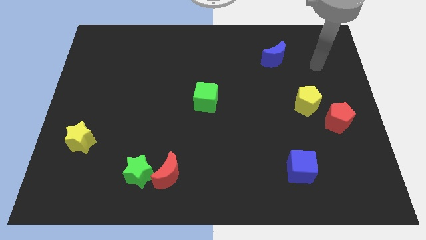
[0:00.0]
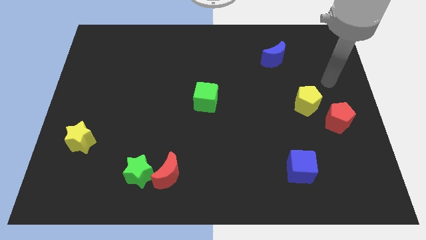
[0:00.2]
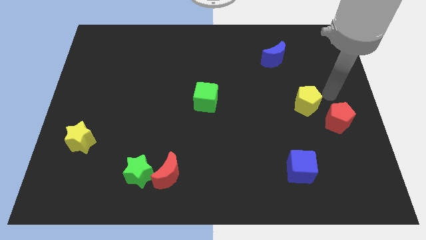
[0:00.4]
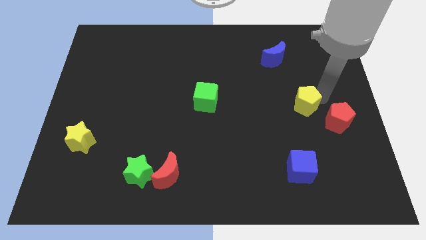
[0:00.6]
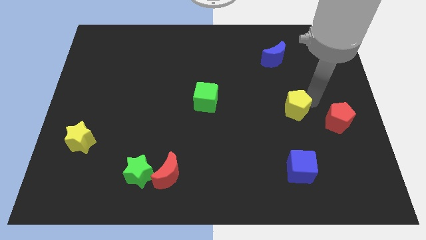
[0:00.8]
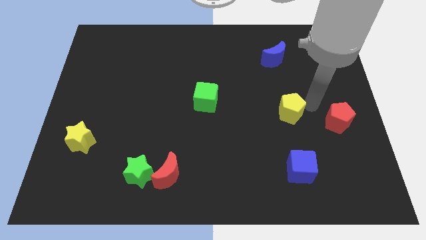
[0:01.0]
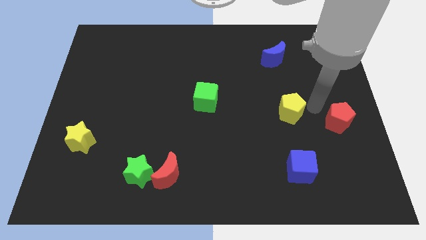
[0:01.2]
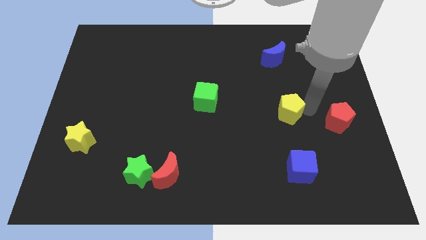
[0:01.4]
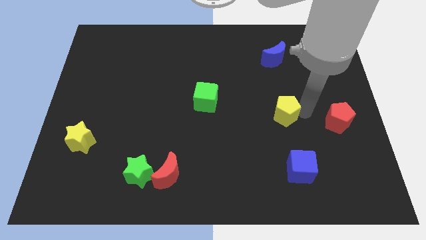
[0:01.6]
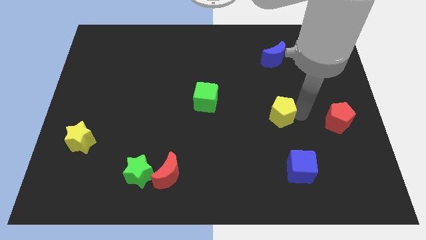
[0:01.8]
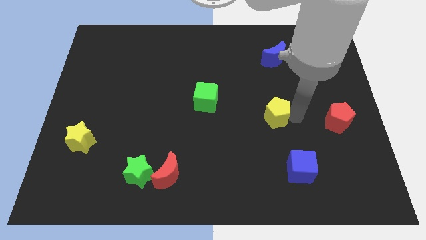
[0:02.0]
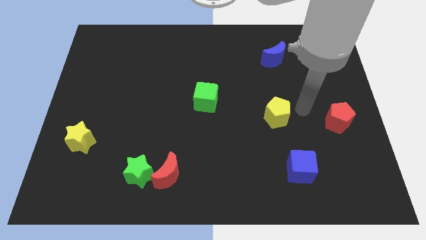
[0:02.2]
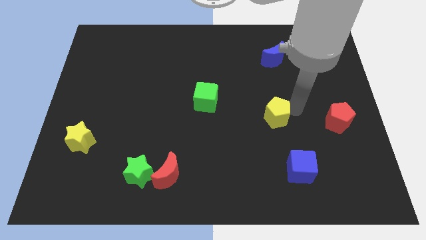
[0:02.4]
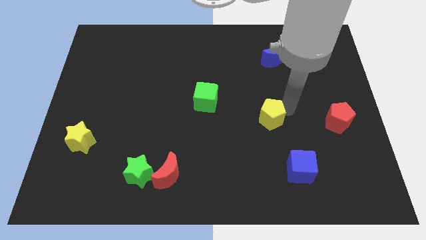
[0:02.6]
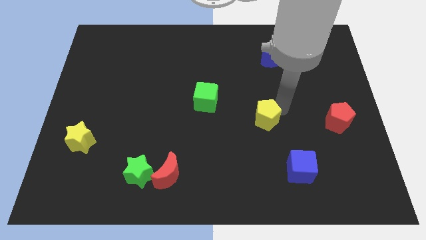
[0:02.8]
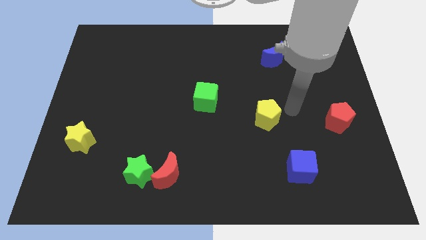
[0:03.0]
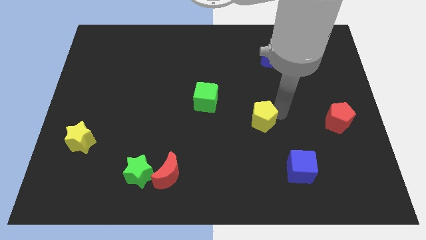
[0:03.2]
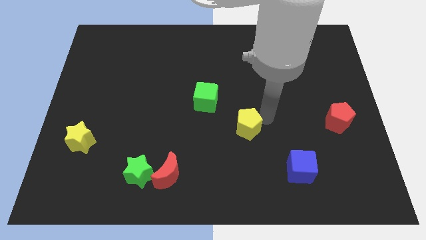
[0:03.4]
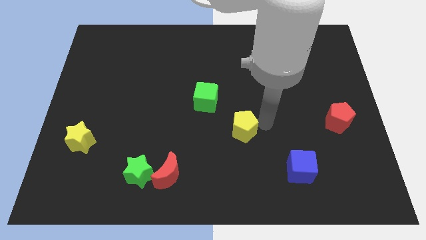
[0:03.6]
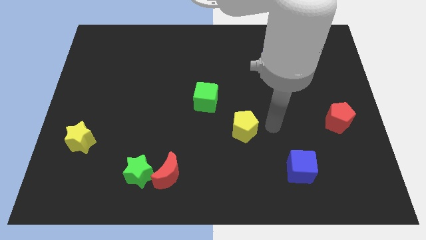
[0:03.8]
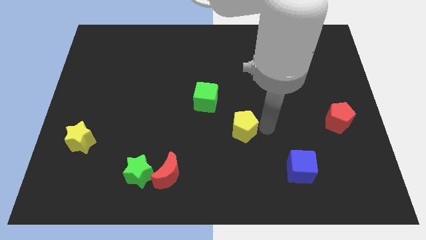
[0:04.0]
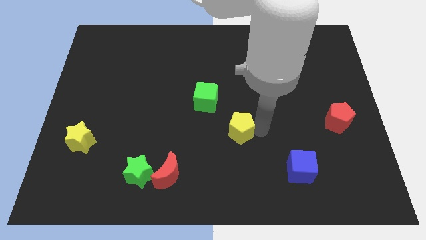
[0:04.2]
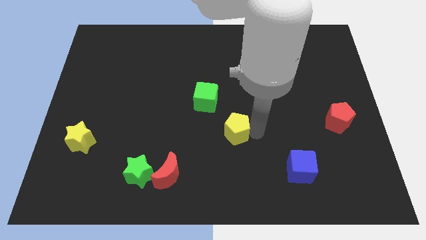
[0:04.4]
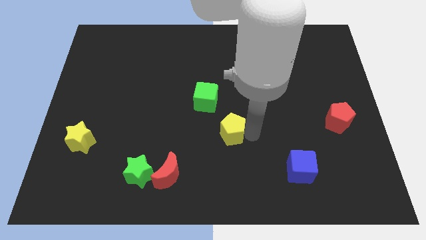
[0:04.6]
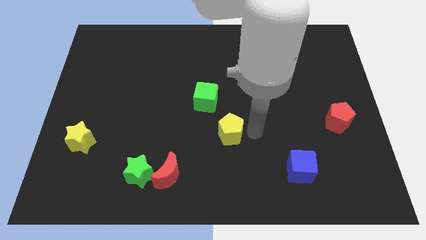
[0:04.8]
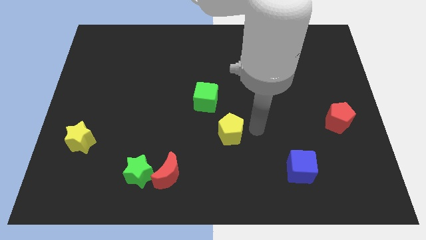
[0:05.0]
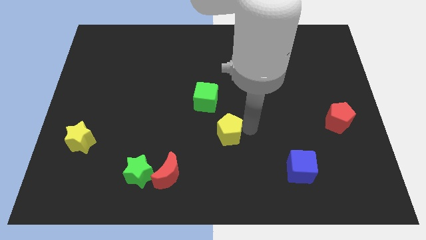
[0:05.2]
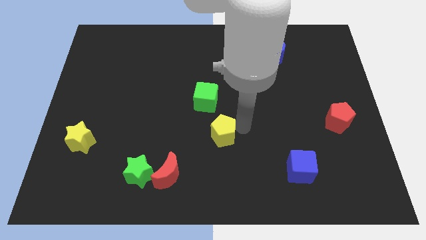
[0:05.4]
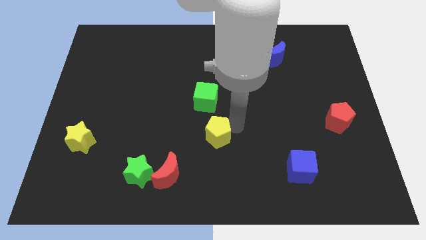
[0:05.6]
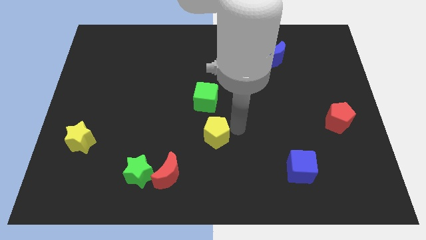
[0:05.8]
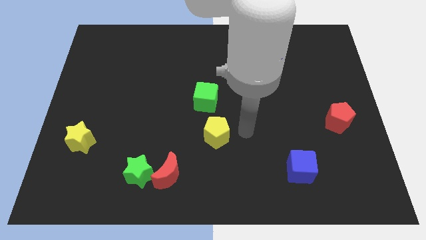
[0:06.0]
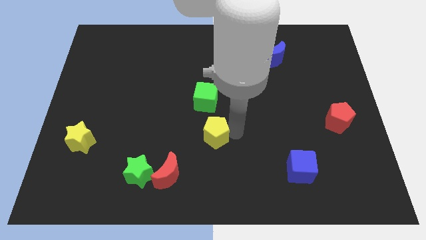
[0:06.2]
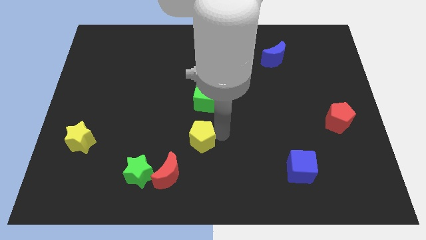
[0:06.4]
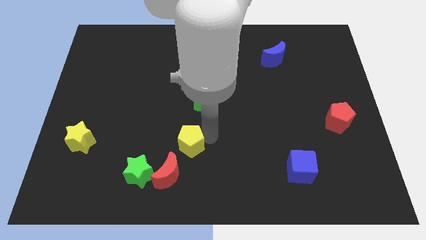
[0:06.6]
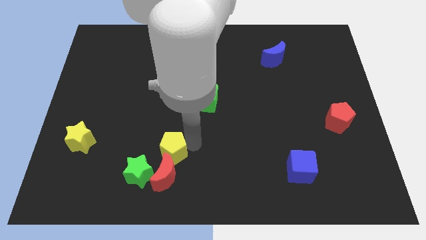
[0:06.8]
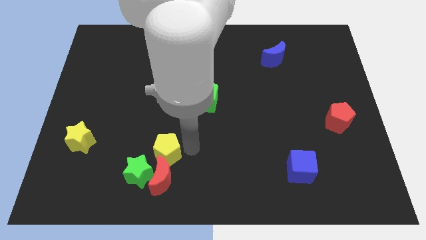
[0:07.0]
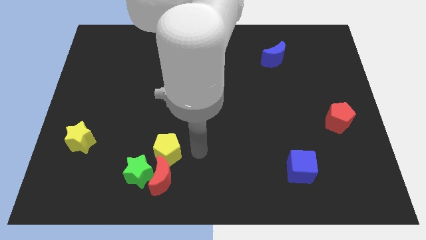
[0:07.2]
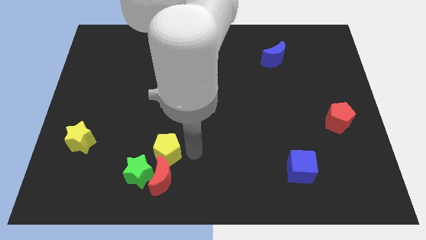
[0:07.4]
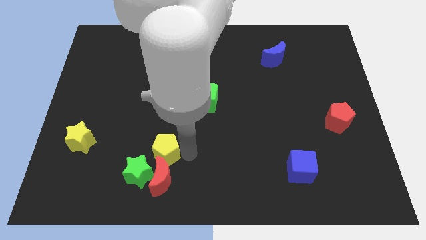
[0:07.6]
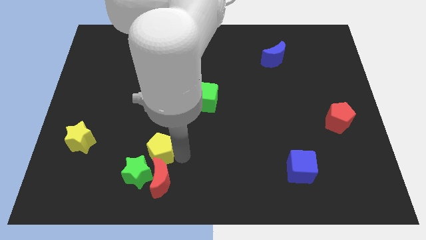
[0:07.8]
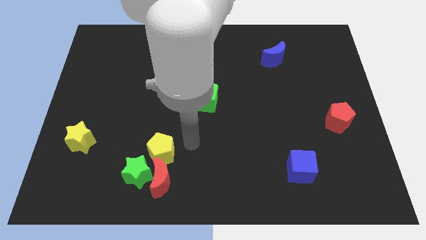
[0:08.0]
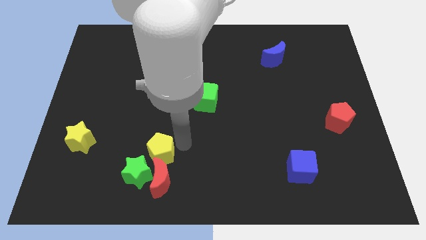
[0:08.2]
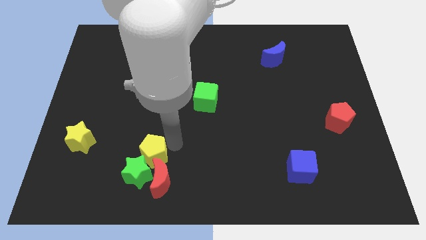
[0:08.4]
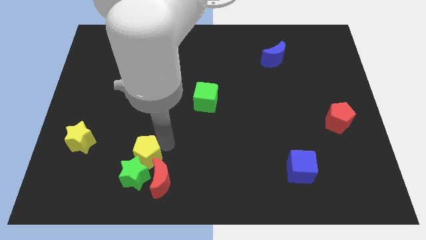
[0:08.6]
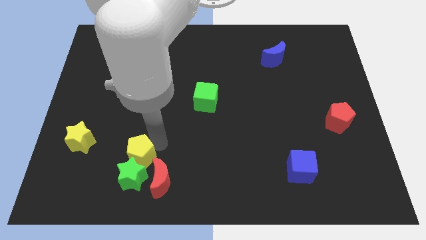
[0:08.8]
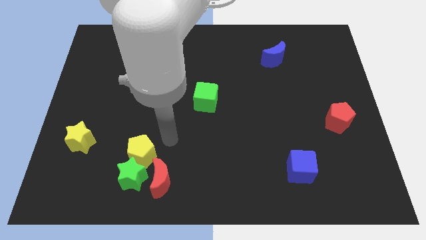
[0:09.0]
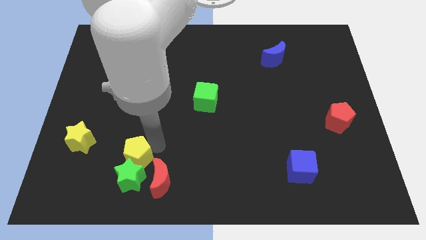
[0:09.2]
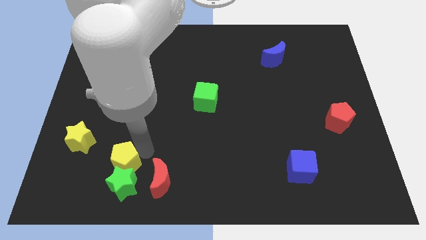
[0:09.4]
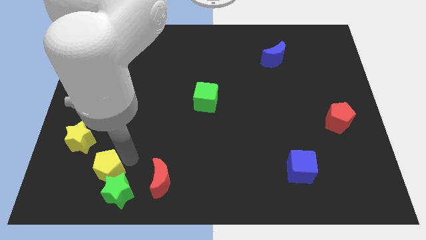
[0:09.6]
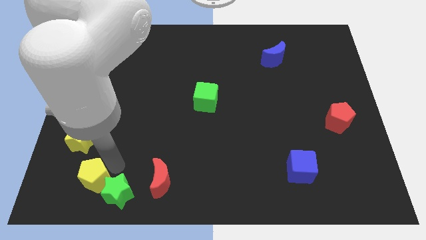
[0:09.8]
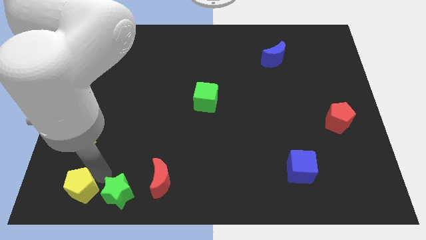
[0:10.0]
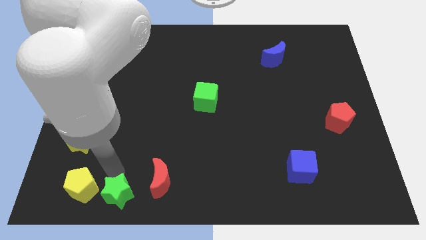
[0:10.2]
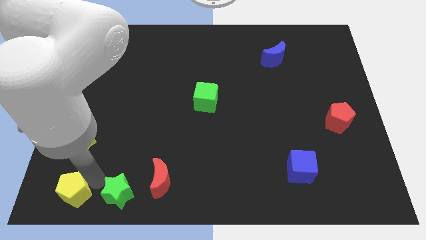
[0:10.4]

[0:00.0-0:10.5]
move the yellow pentagon to the bottom left of the board

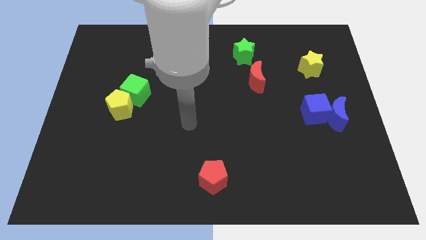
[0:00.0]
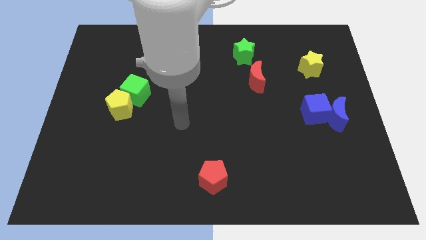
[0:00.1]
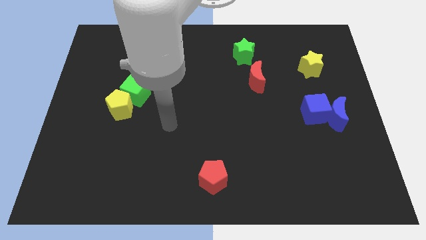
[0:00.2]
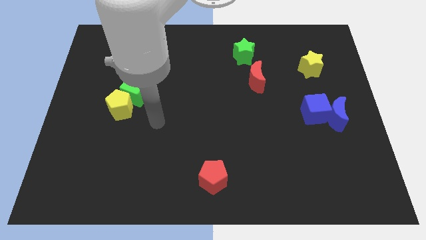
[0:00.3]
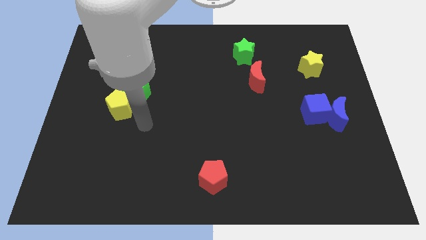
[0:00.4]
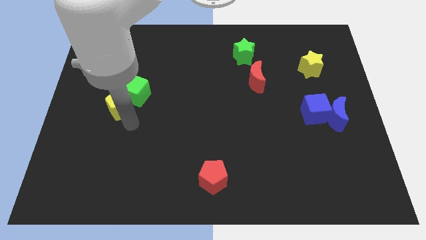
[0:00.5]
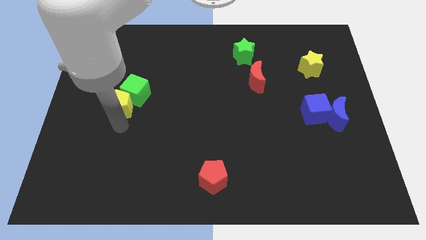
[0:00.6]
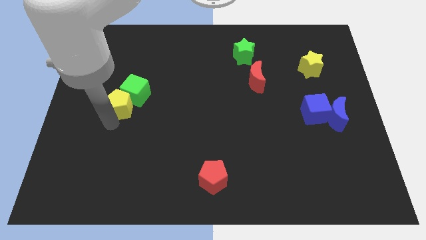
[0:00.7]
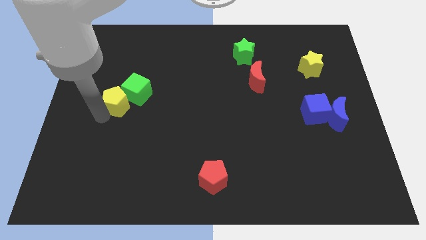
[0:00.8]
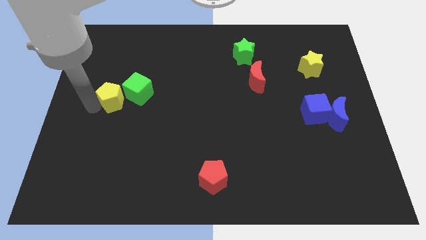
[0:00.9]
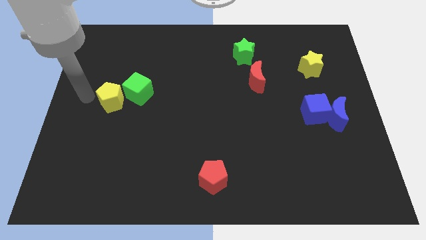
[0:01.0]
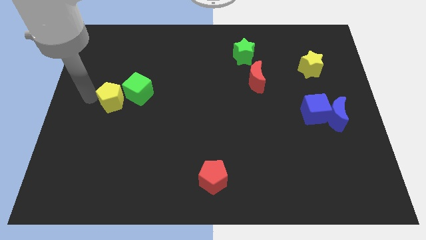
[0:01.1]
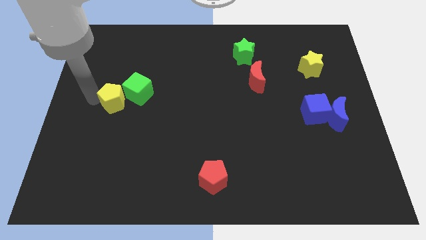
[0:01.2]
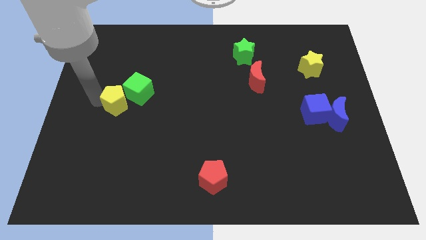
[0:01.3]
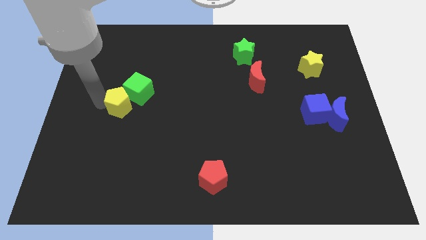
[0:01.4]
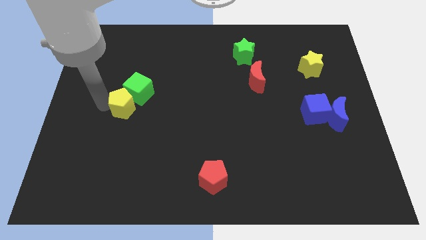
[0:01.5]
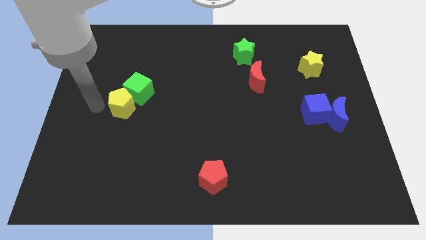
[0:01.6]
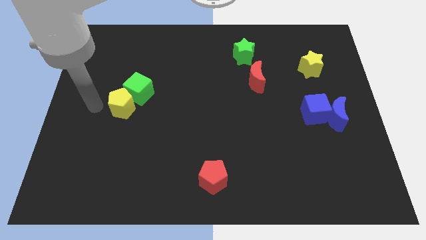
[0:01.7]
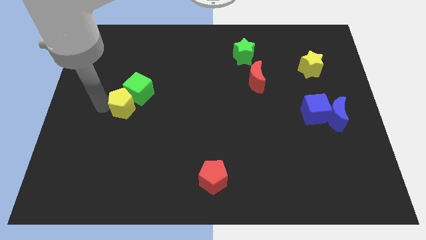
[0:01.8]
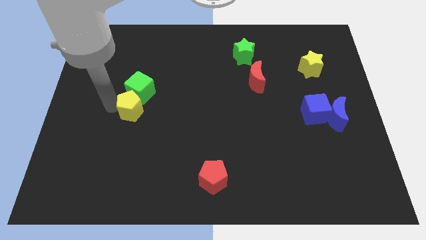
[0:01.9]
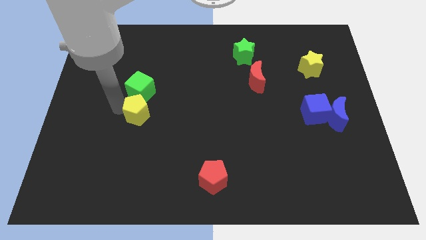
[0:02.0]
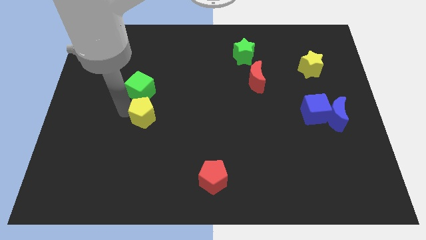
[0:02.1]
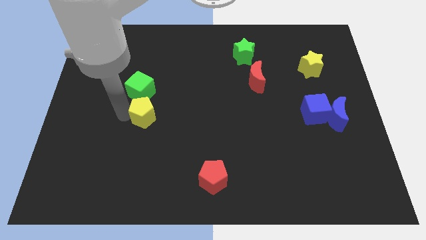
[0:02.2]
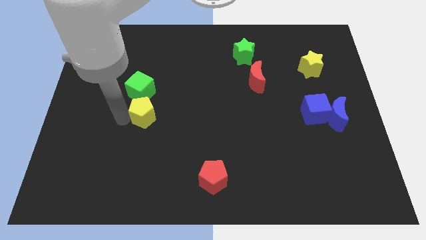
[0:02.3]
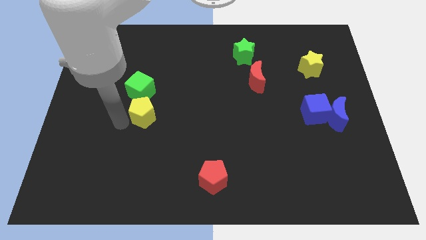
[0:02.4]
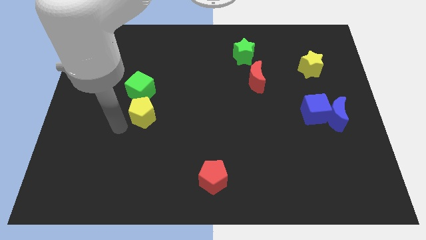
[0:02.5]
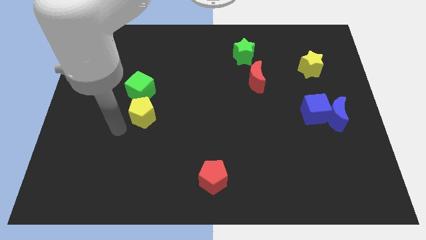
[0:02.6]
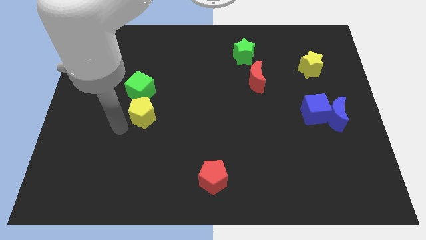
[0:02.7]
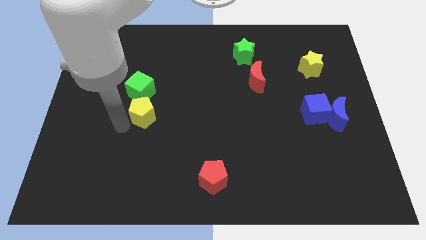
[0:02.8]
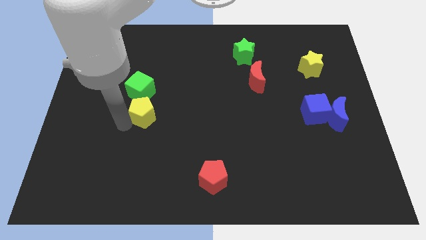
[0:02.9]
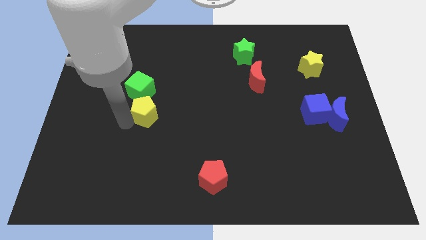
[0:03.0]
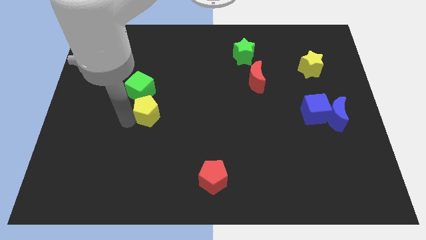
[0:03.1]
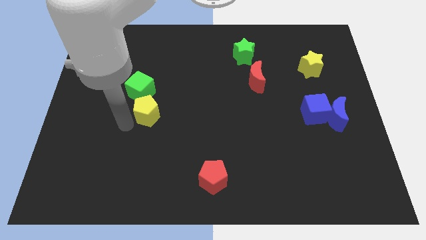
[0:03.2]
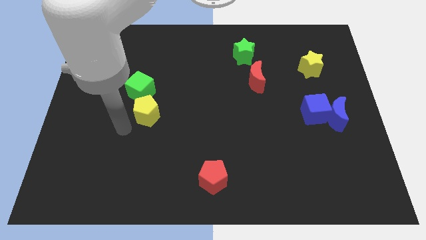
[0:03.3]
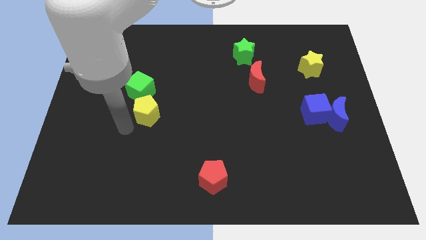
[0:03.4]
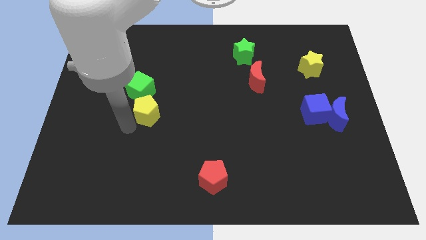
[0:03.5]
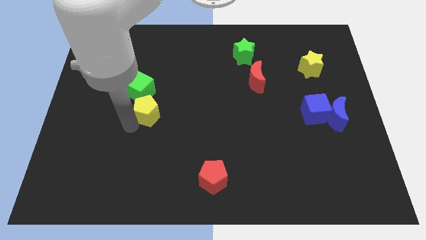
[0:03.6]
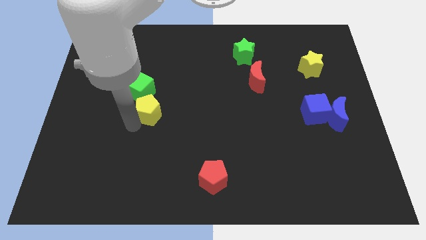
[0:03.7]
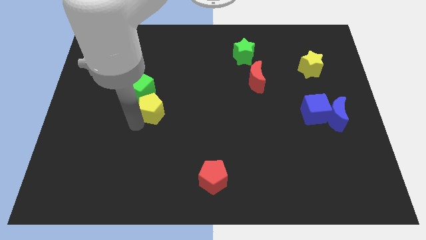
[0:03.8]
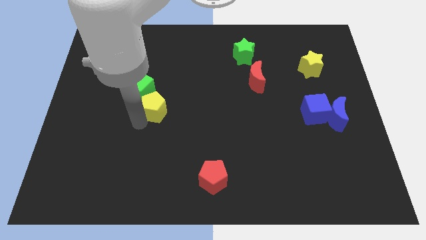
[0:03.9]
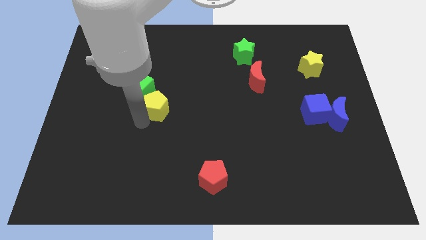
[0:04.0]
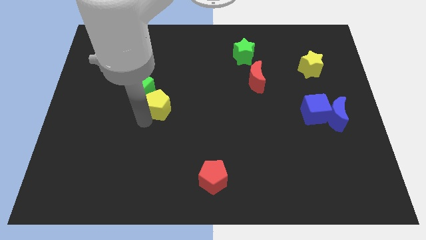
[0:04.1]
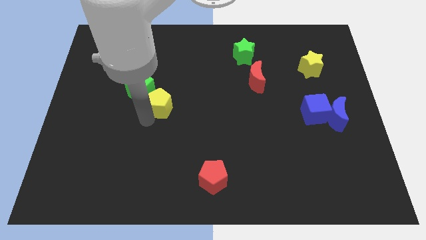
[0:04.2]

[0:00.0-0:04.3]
slide the yellow pentagon to the middle of the board
